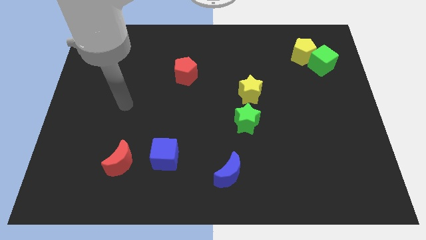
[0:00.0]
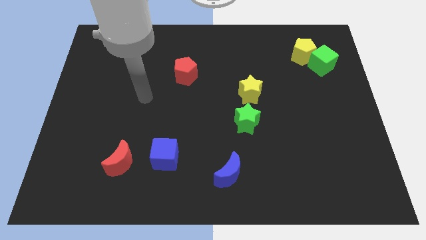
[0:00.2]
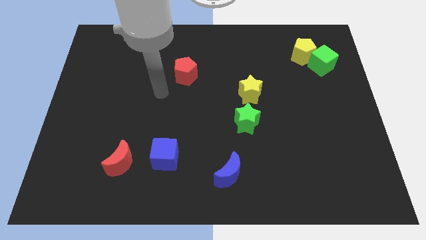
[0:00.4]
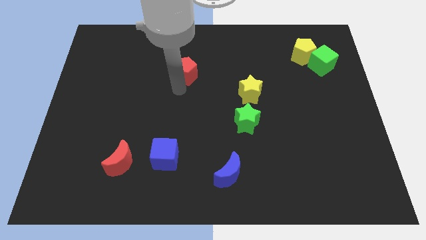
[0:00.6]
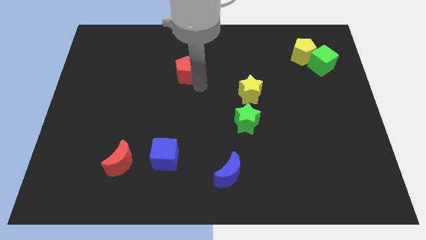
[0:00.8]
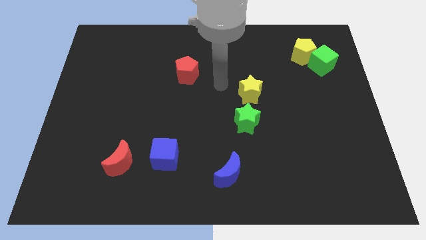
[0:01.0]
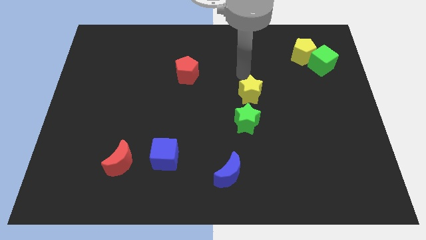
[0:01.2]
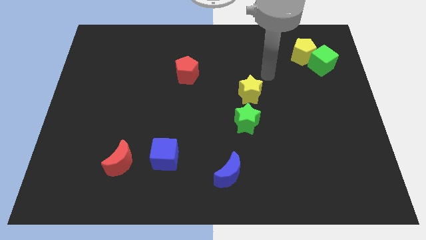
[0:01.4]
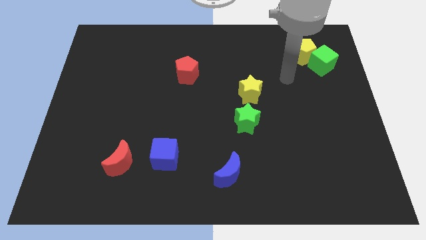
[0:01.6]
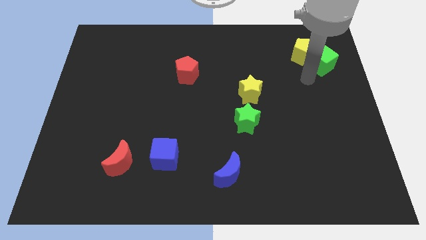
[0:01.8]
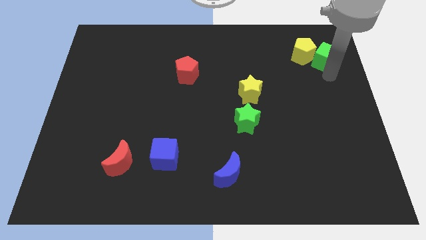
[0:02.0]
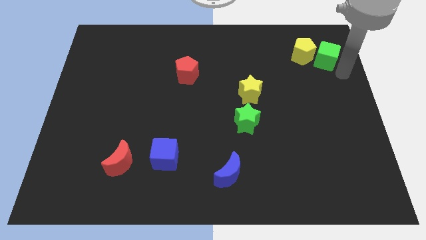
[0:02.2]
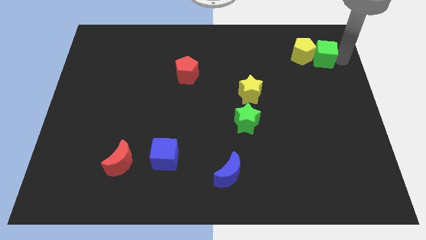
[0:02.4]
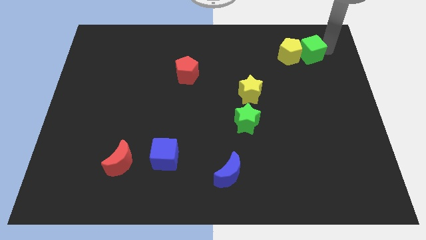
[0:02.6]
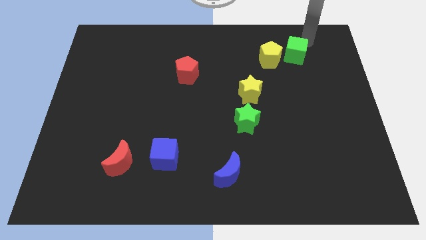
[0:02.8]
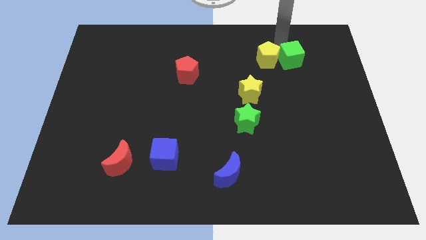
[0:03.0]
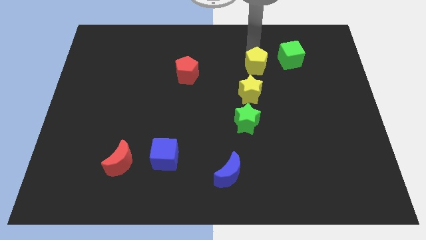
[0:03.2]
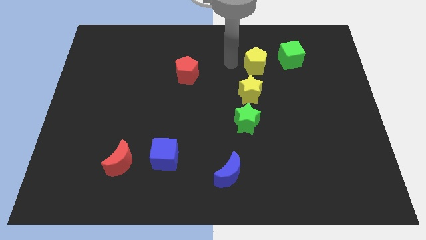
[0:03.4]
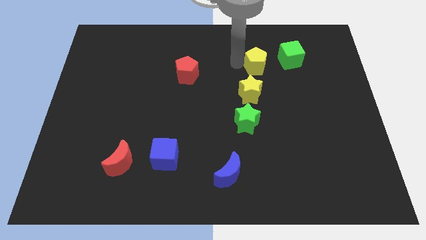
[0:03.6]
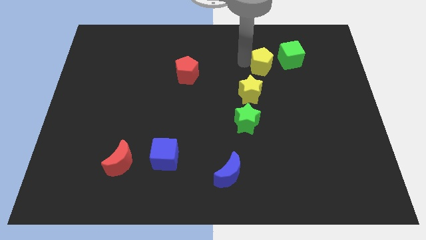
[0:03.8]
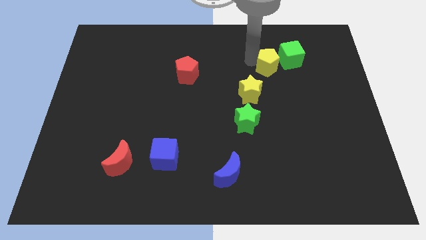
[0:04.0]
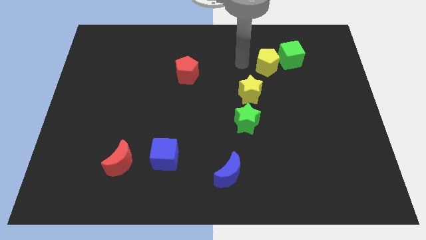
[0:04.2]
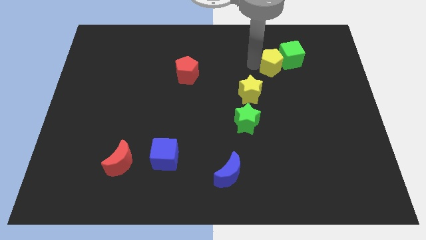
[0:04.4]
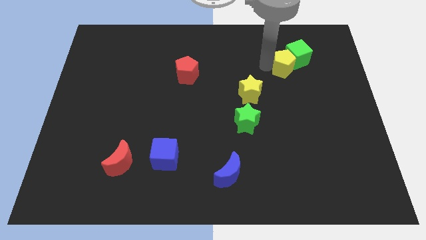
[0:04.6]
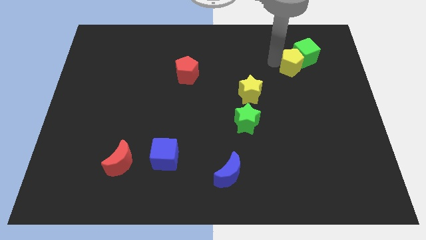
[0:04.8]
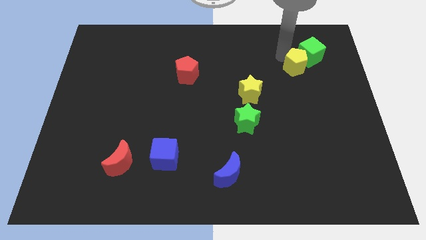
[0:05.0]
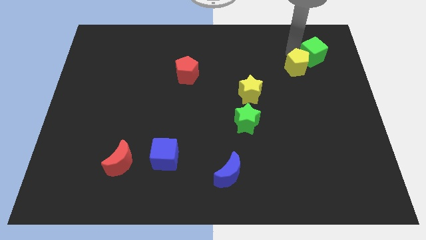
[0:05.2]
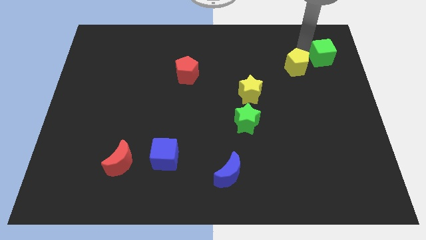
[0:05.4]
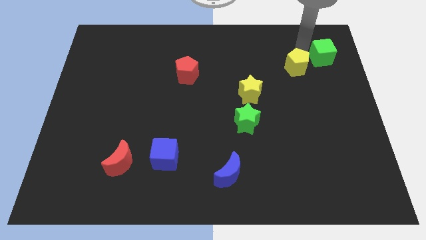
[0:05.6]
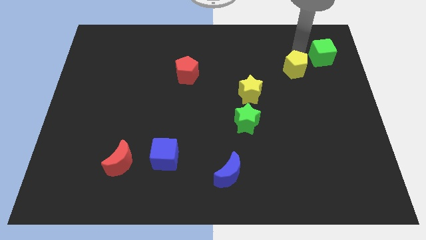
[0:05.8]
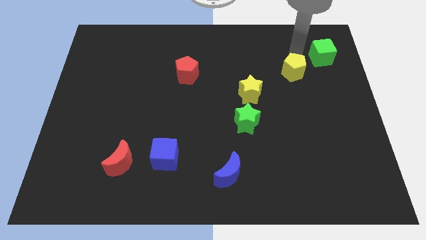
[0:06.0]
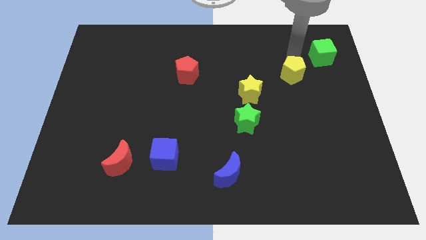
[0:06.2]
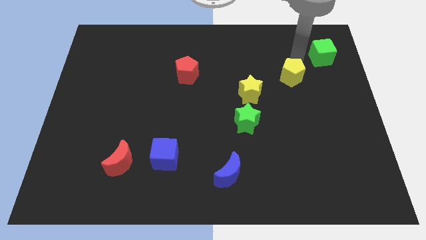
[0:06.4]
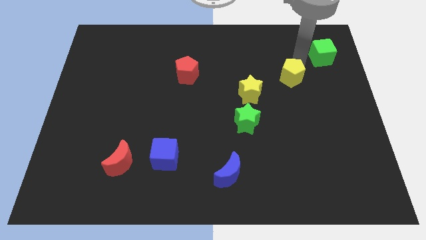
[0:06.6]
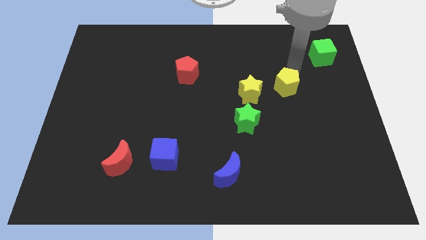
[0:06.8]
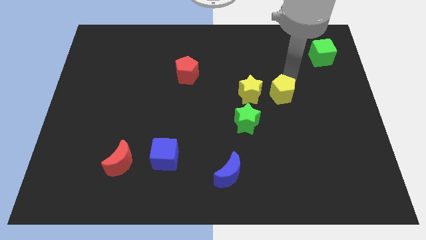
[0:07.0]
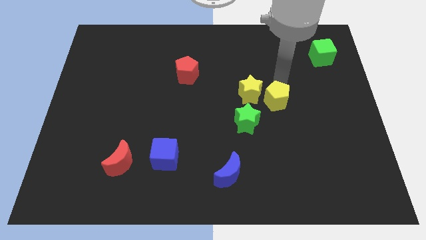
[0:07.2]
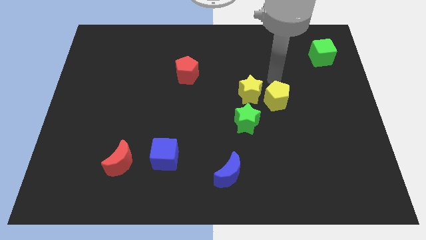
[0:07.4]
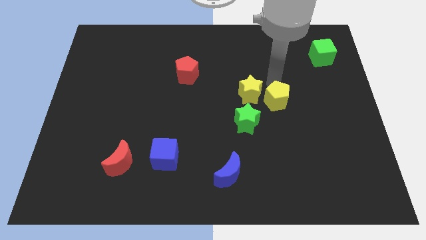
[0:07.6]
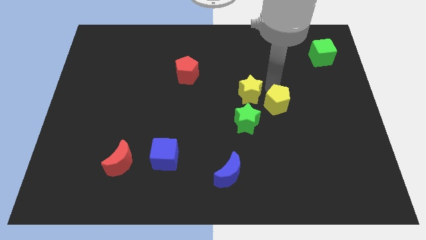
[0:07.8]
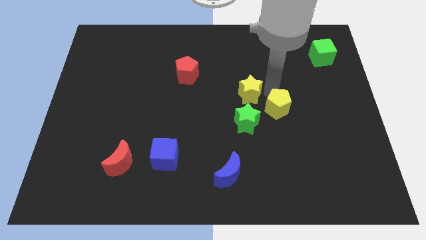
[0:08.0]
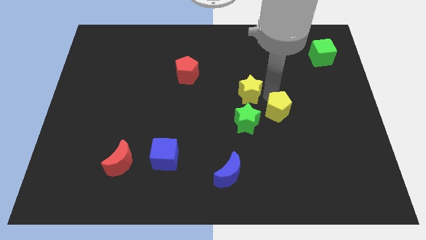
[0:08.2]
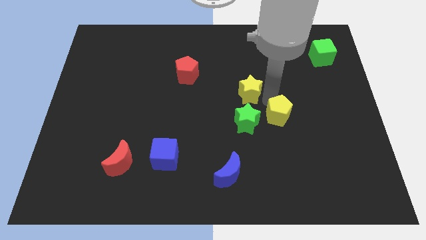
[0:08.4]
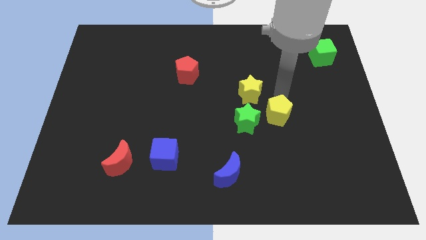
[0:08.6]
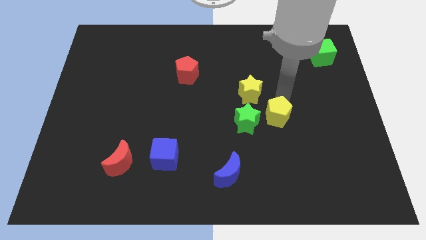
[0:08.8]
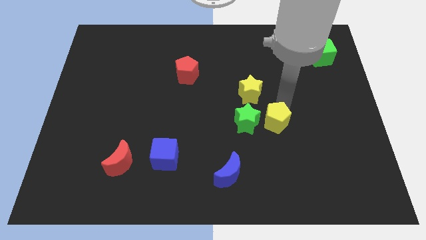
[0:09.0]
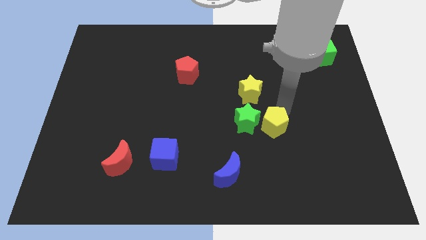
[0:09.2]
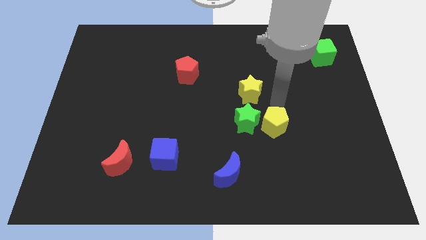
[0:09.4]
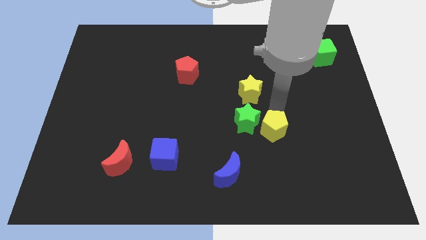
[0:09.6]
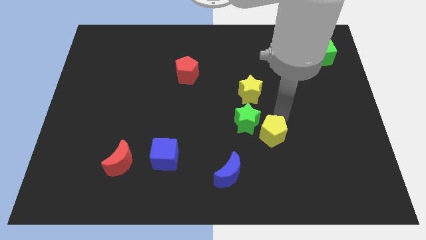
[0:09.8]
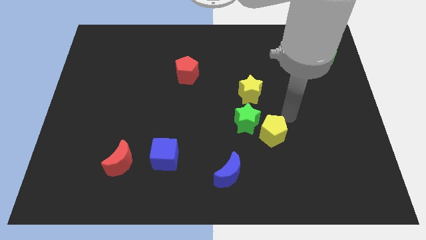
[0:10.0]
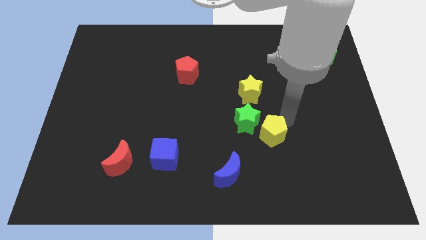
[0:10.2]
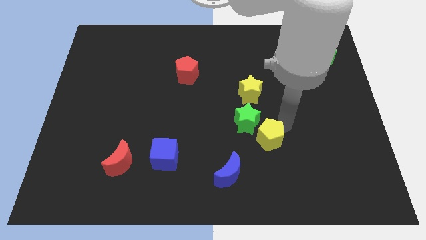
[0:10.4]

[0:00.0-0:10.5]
slide the yellow pentagon diagonally up and to the right of the blue moon

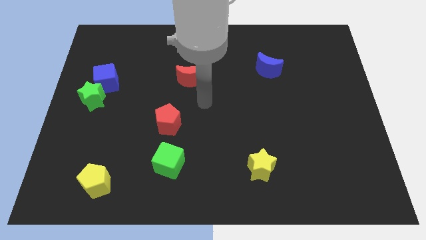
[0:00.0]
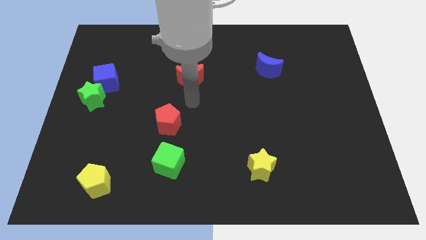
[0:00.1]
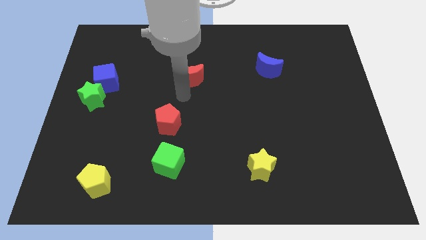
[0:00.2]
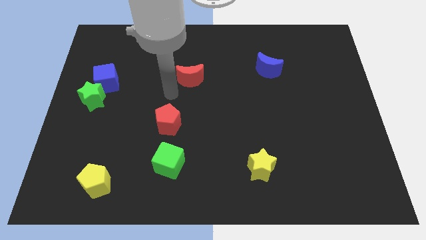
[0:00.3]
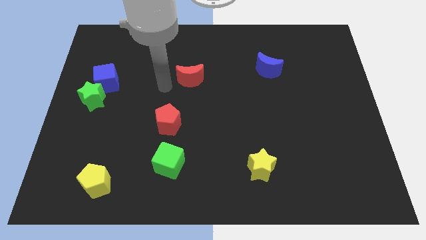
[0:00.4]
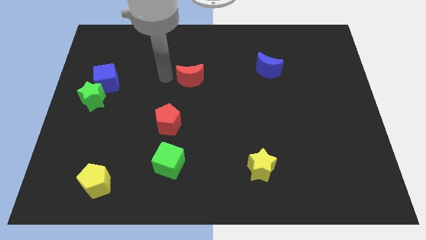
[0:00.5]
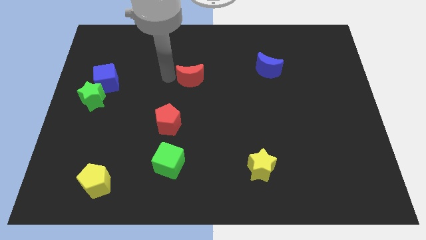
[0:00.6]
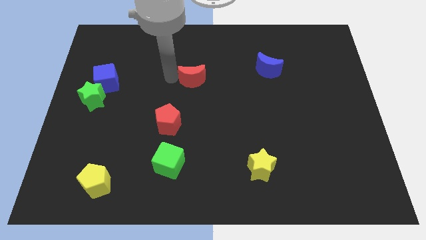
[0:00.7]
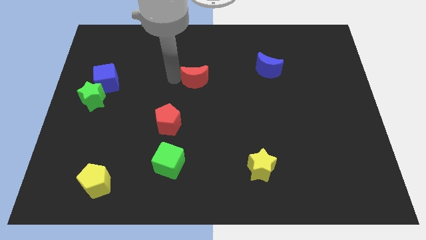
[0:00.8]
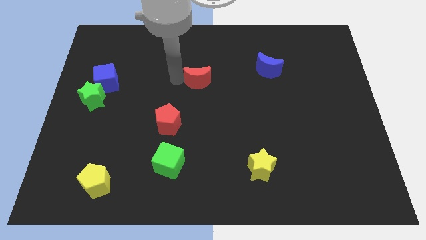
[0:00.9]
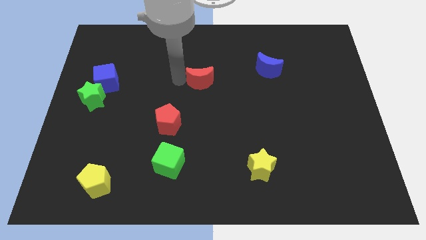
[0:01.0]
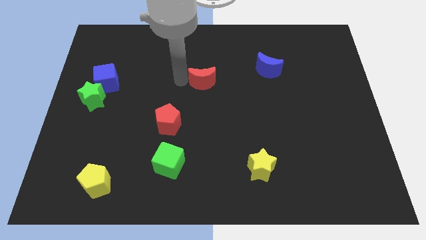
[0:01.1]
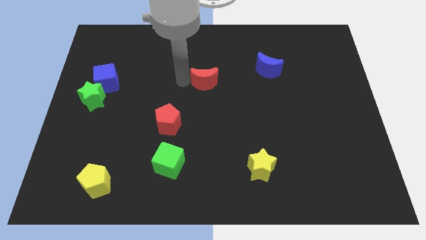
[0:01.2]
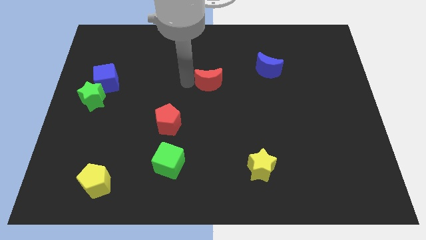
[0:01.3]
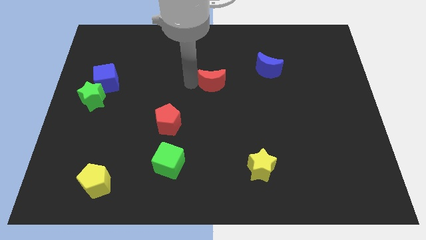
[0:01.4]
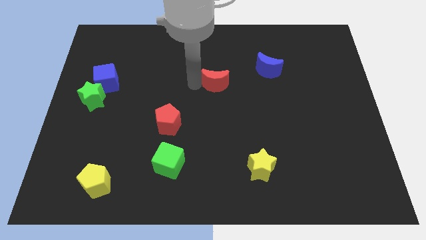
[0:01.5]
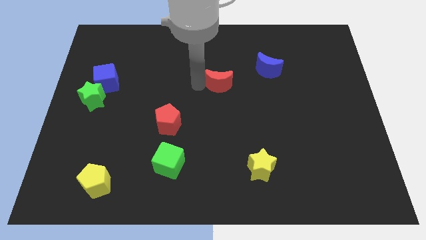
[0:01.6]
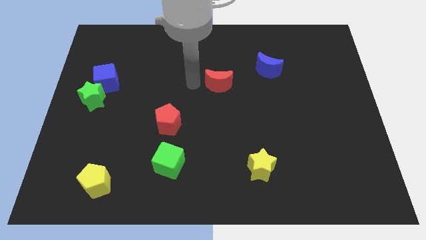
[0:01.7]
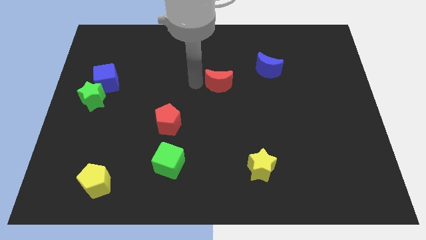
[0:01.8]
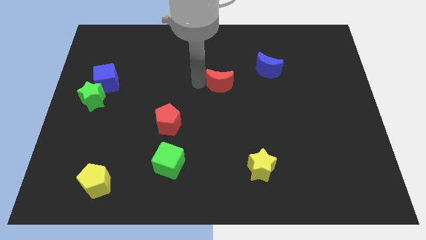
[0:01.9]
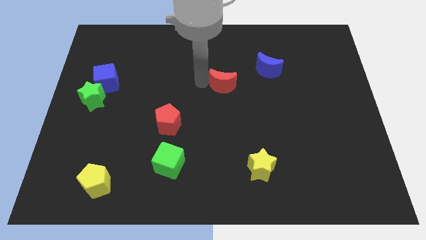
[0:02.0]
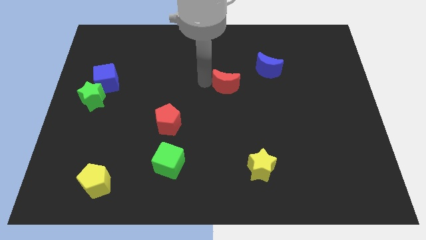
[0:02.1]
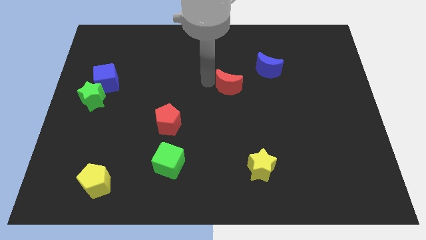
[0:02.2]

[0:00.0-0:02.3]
slide the red moon to the bottom left side of the blue moon
